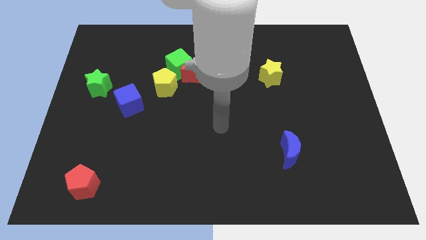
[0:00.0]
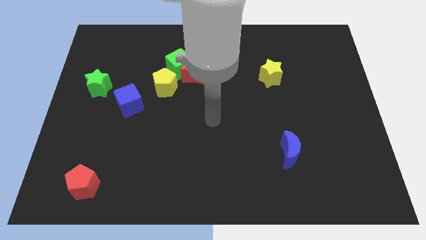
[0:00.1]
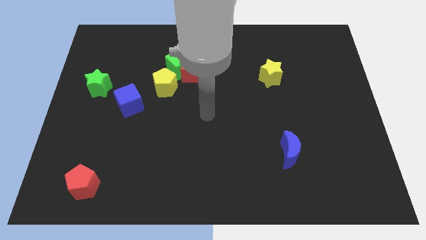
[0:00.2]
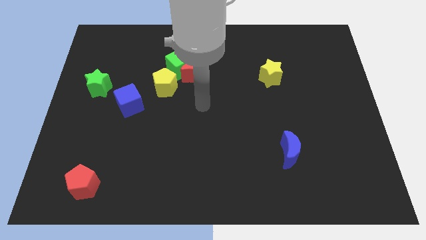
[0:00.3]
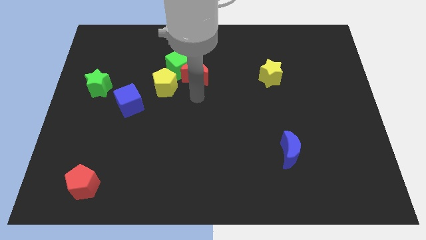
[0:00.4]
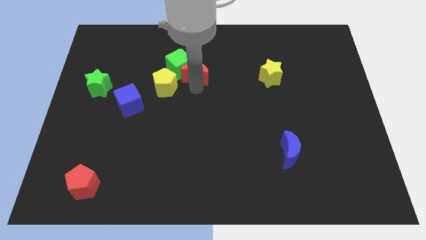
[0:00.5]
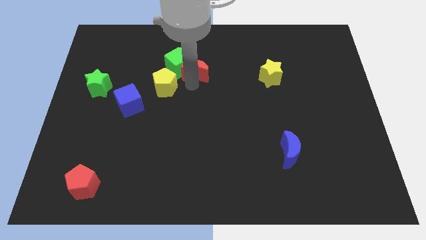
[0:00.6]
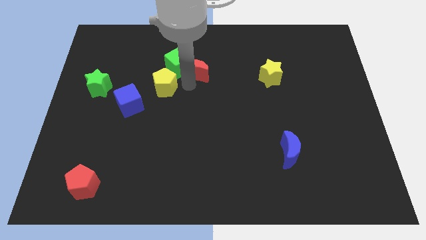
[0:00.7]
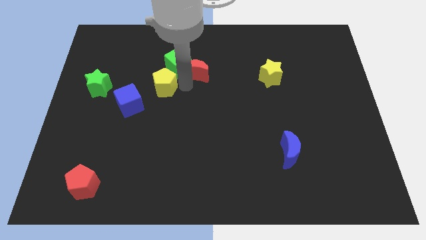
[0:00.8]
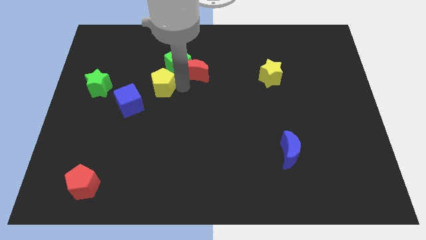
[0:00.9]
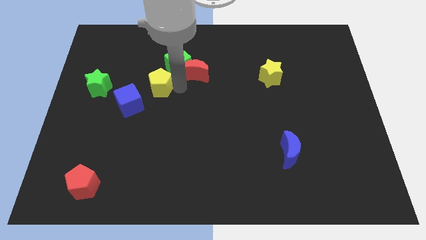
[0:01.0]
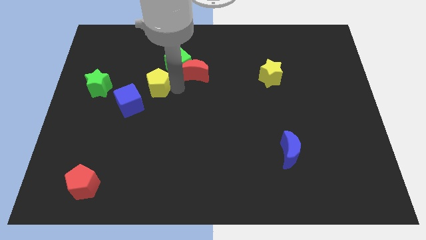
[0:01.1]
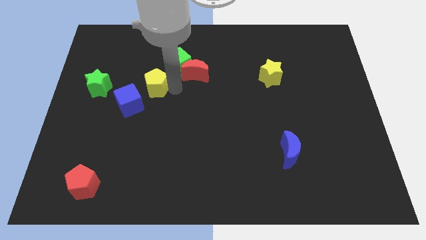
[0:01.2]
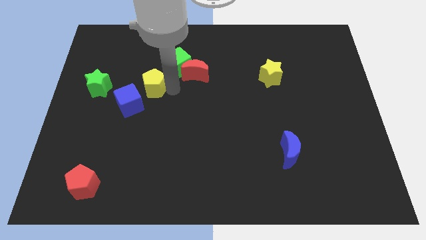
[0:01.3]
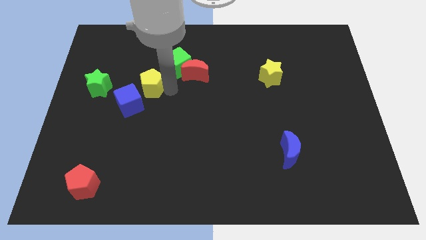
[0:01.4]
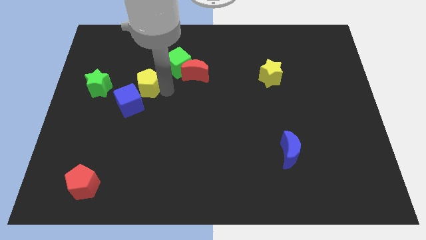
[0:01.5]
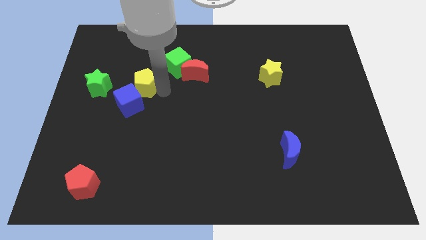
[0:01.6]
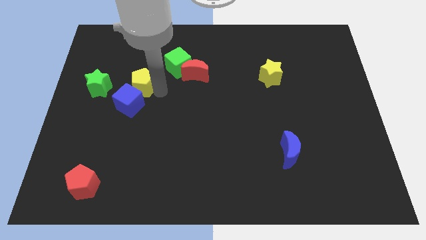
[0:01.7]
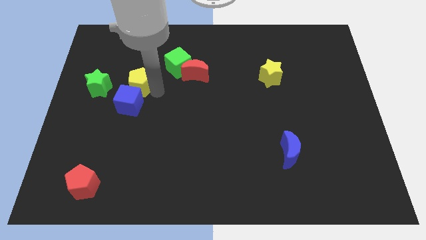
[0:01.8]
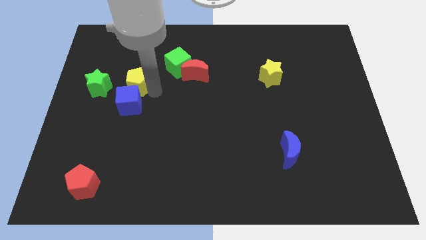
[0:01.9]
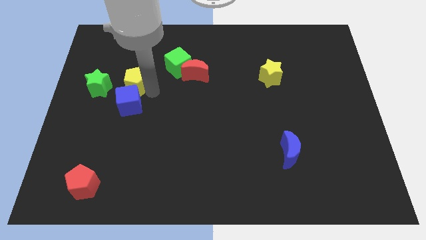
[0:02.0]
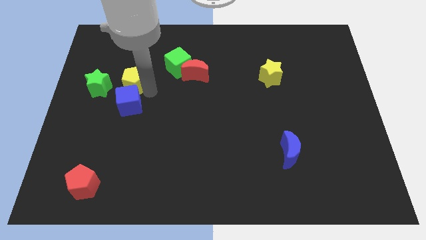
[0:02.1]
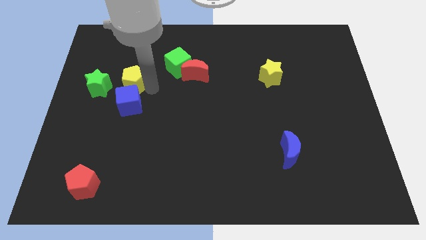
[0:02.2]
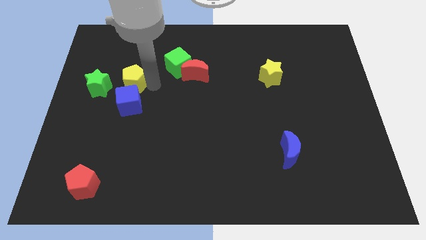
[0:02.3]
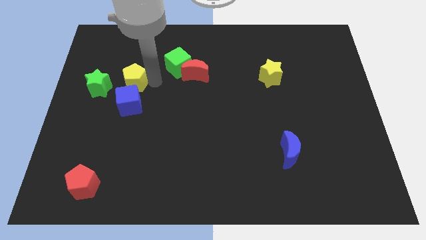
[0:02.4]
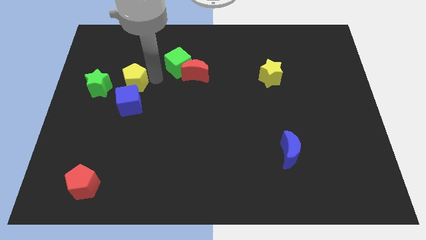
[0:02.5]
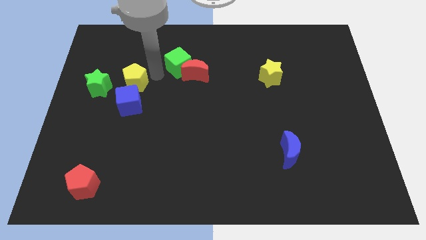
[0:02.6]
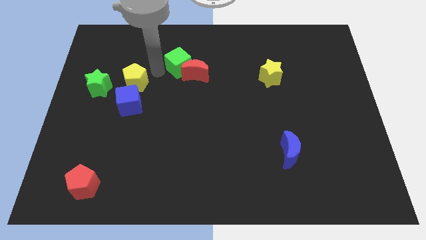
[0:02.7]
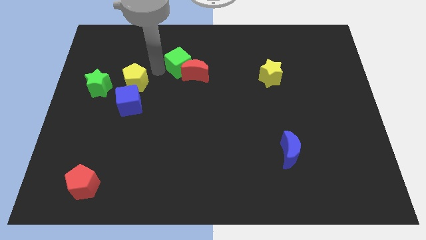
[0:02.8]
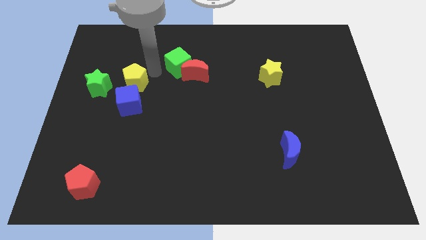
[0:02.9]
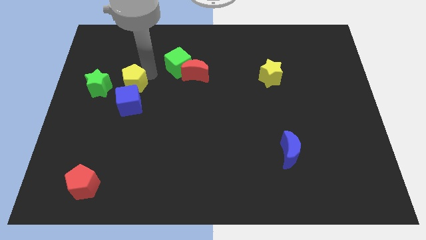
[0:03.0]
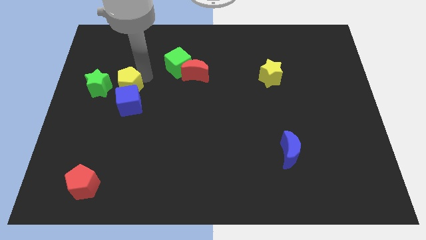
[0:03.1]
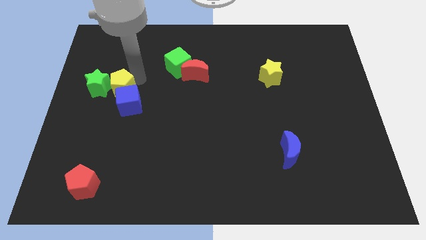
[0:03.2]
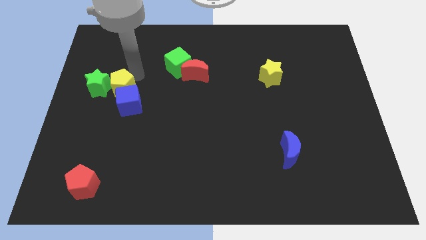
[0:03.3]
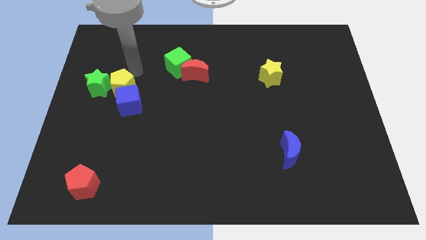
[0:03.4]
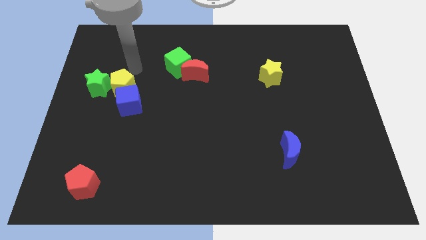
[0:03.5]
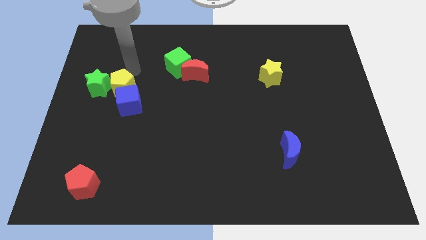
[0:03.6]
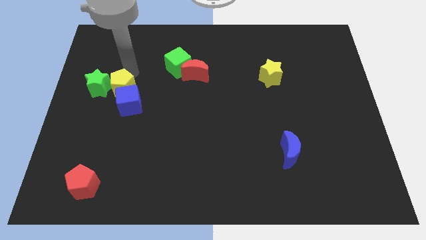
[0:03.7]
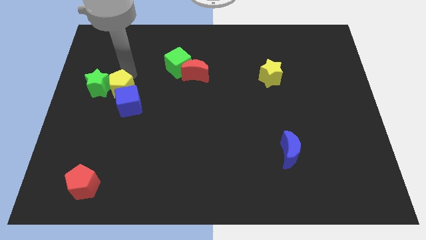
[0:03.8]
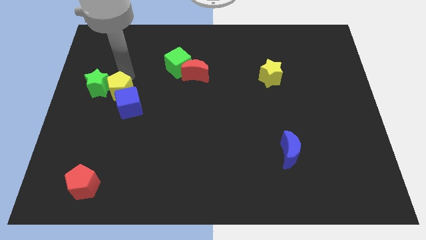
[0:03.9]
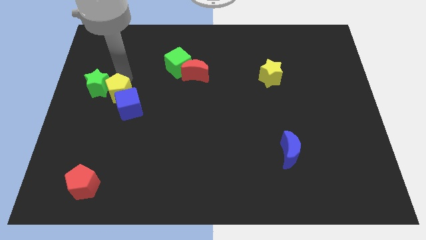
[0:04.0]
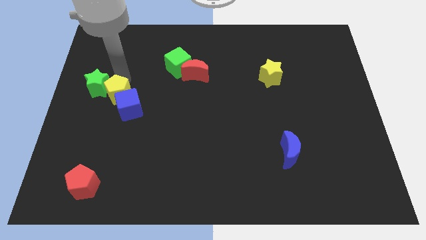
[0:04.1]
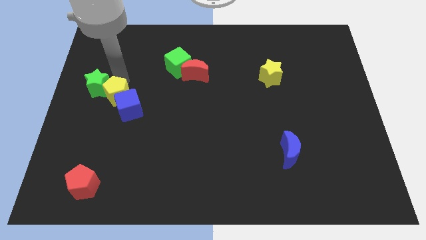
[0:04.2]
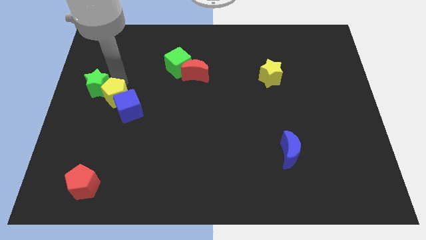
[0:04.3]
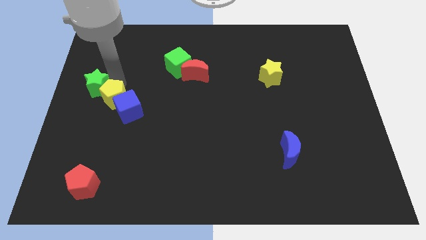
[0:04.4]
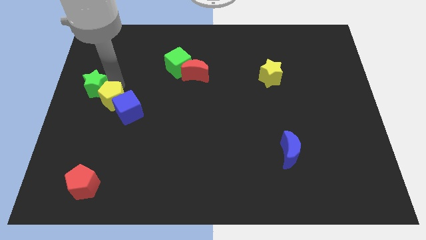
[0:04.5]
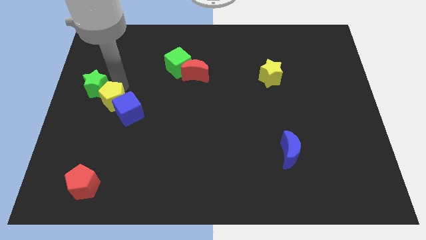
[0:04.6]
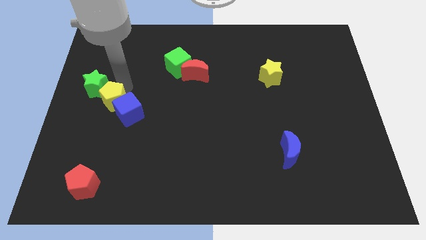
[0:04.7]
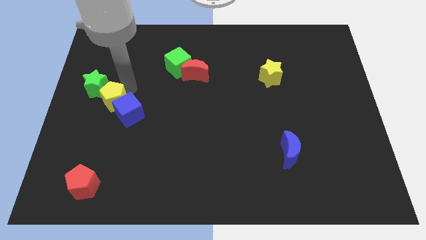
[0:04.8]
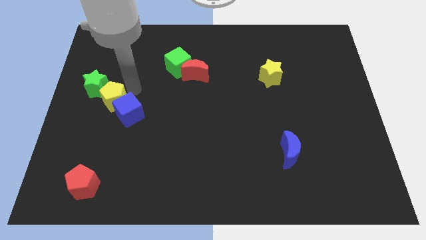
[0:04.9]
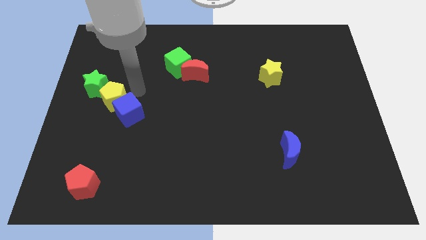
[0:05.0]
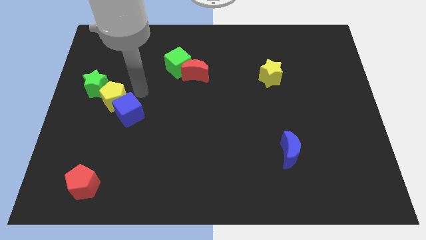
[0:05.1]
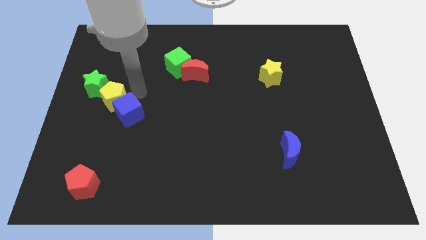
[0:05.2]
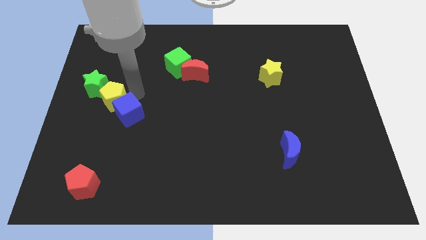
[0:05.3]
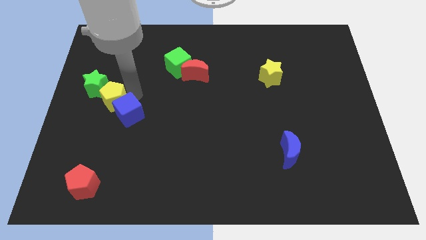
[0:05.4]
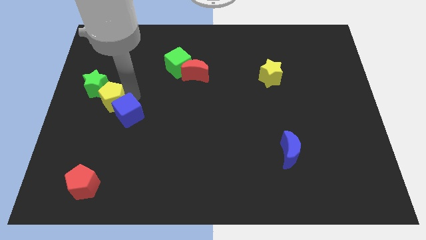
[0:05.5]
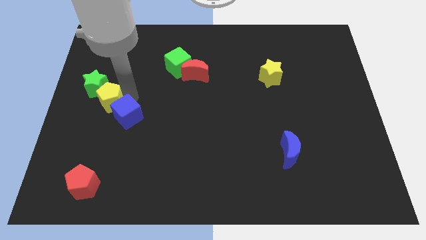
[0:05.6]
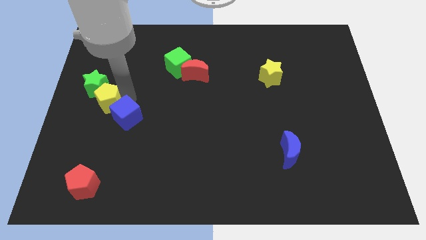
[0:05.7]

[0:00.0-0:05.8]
put the yellow pentagon to the left side

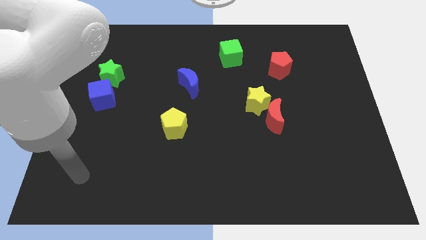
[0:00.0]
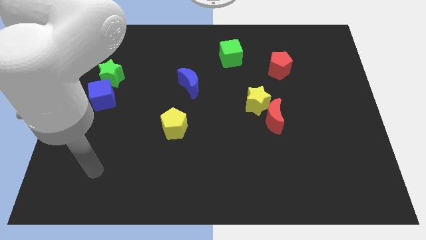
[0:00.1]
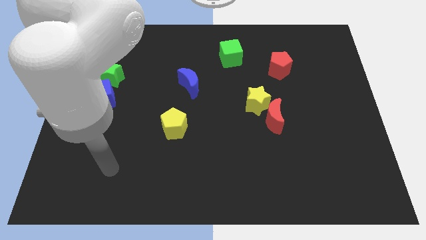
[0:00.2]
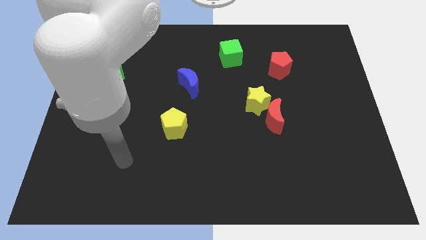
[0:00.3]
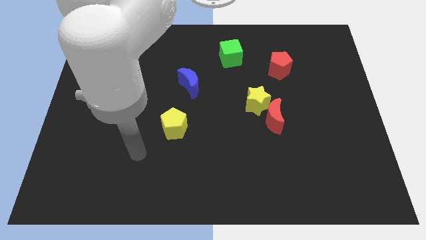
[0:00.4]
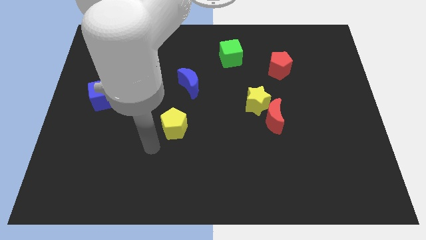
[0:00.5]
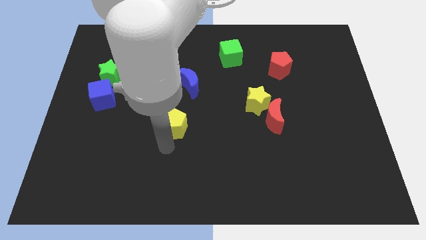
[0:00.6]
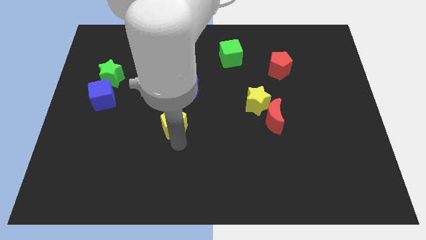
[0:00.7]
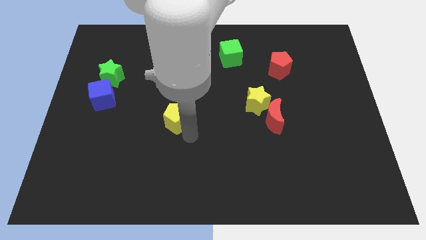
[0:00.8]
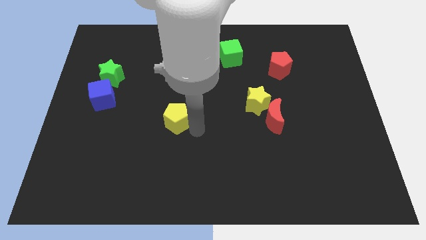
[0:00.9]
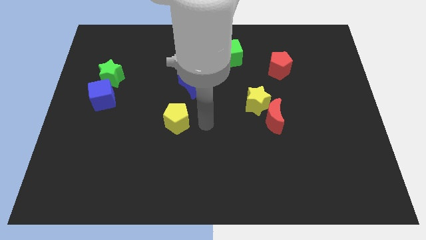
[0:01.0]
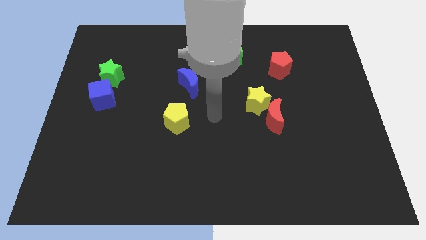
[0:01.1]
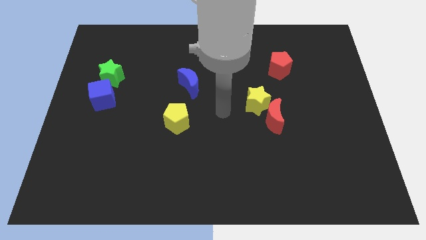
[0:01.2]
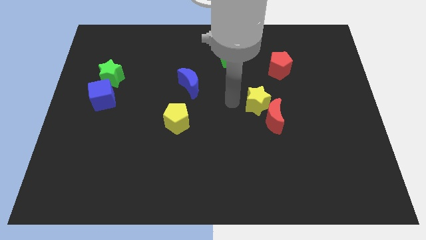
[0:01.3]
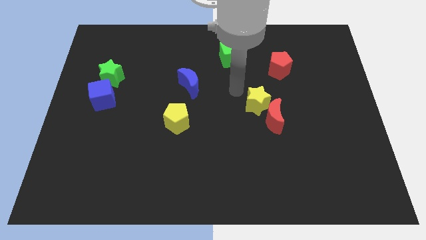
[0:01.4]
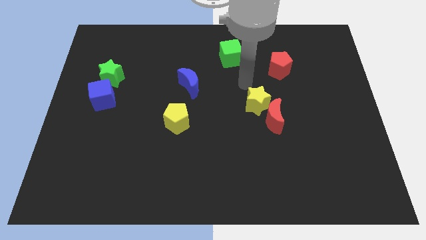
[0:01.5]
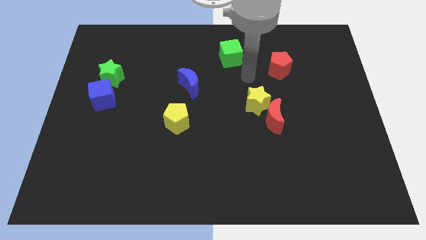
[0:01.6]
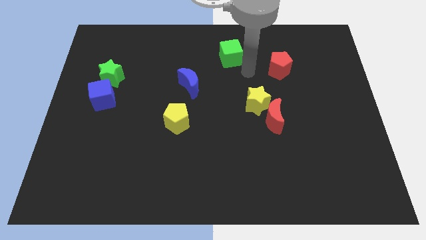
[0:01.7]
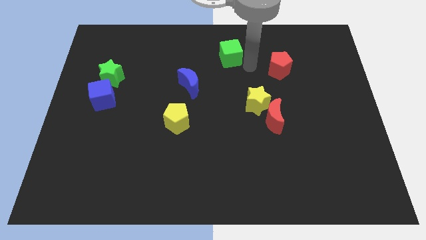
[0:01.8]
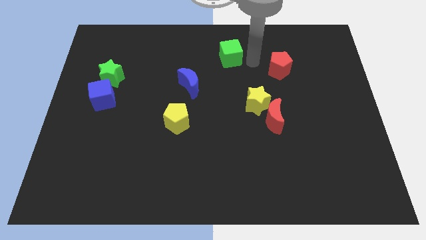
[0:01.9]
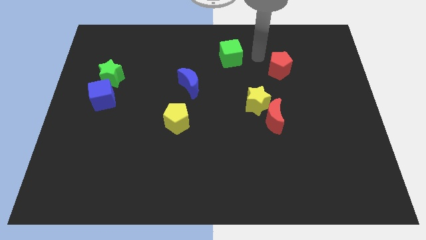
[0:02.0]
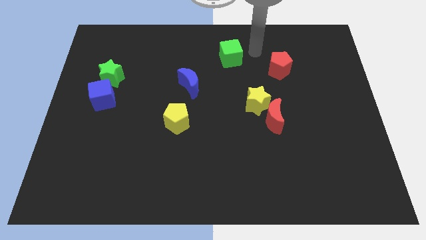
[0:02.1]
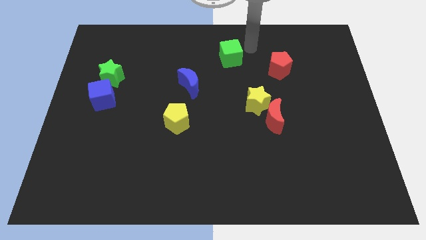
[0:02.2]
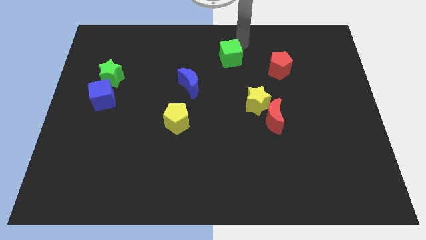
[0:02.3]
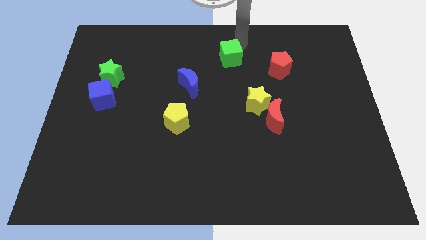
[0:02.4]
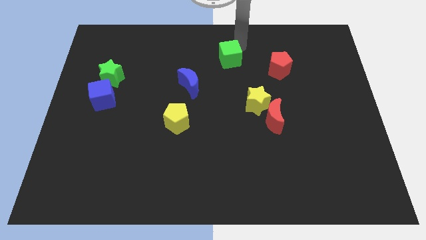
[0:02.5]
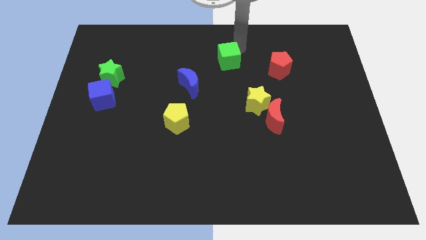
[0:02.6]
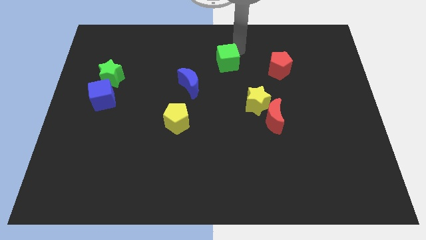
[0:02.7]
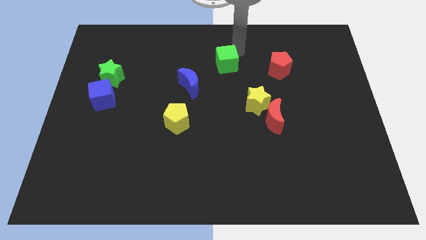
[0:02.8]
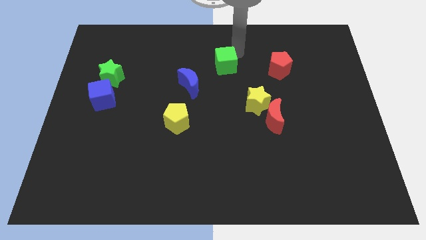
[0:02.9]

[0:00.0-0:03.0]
push the green cube to the center of the board
